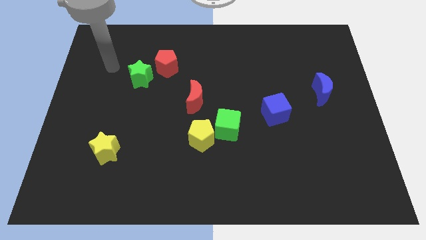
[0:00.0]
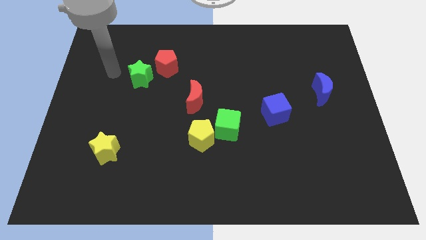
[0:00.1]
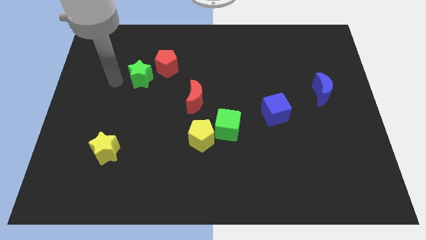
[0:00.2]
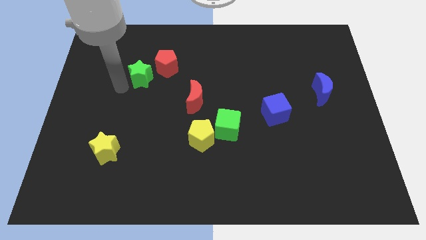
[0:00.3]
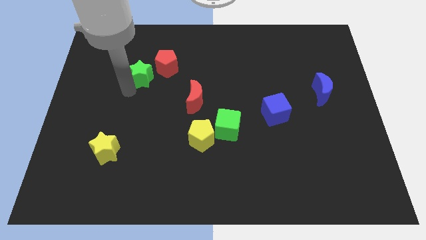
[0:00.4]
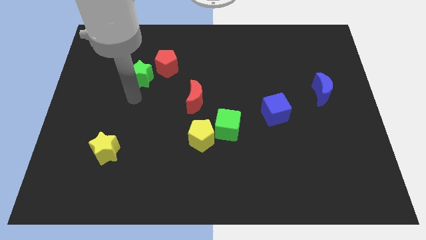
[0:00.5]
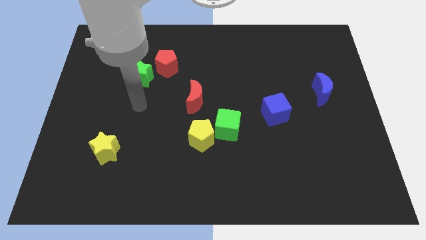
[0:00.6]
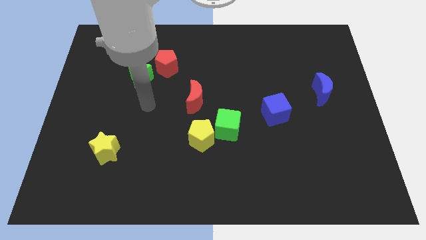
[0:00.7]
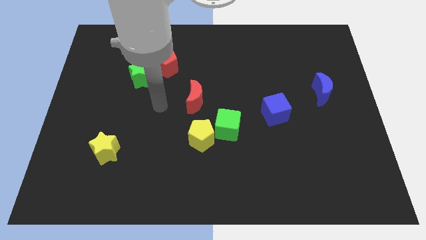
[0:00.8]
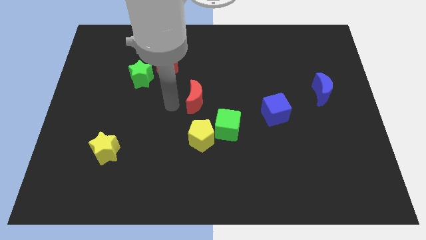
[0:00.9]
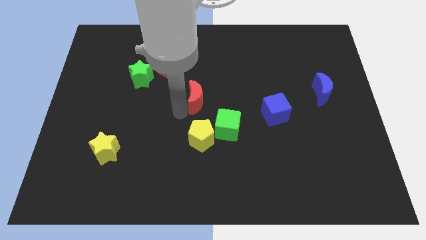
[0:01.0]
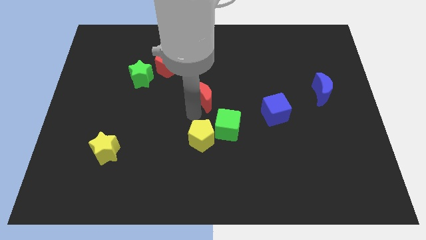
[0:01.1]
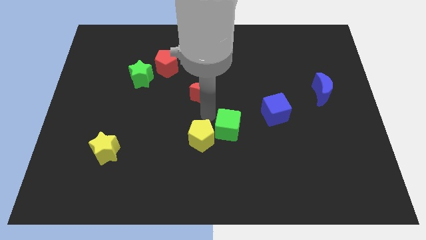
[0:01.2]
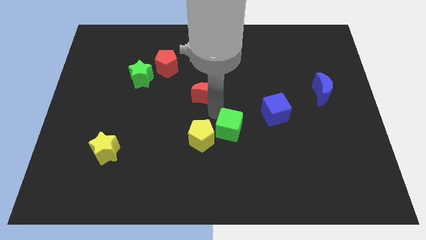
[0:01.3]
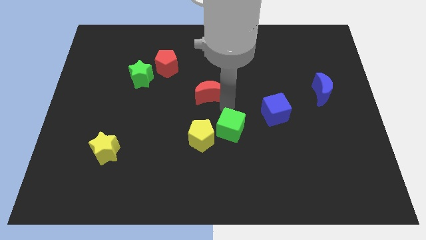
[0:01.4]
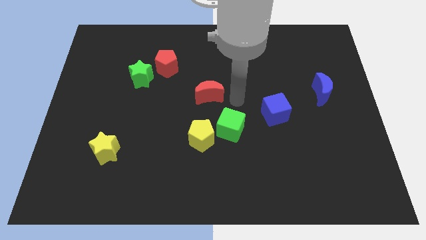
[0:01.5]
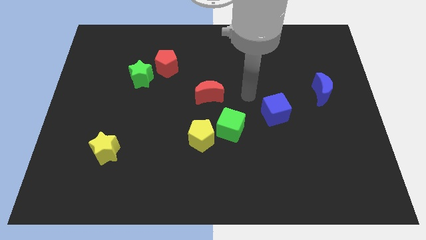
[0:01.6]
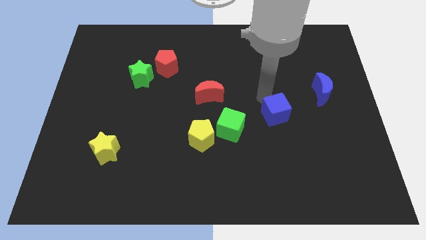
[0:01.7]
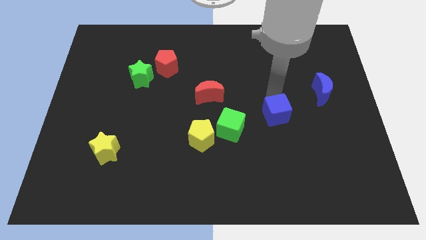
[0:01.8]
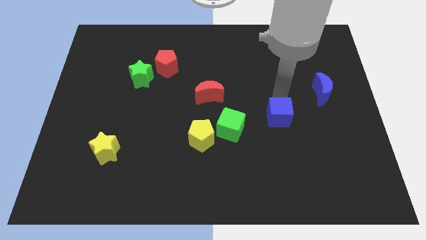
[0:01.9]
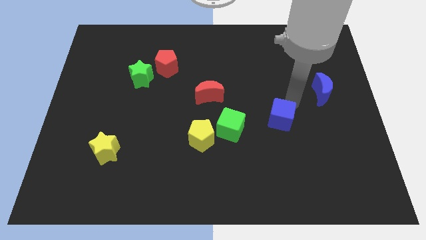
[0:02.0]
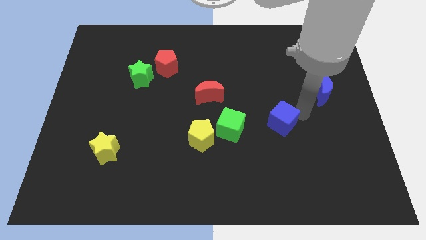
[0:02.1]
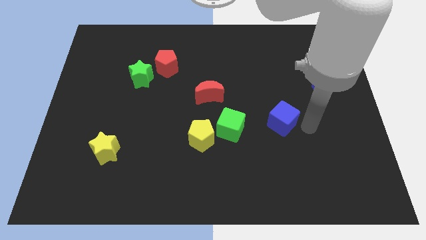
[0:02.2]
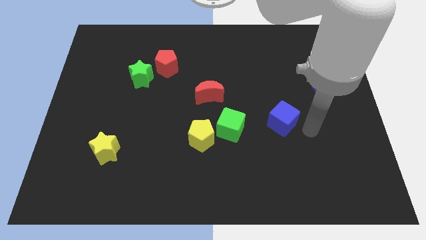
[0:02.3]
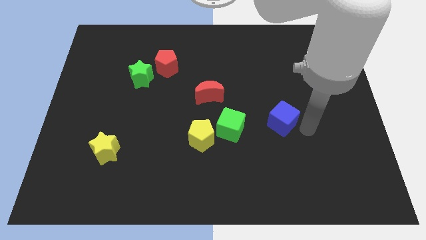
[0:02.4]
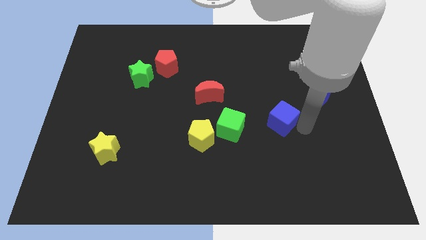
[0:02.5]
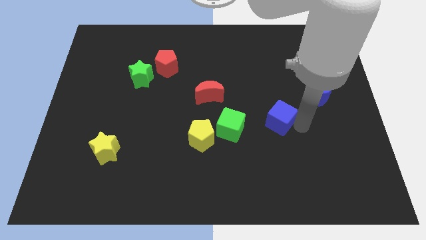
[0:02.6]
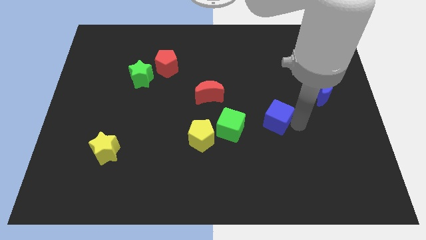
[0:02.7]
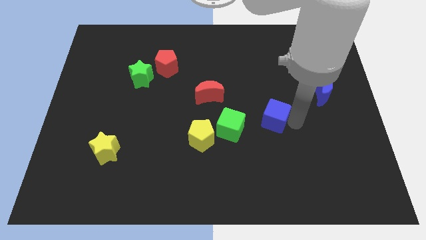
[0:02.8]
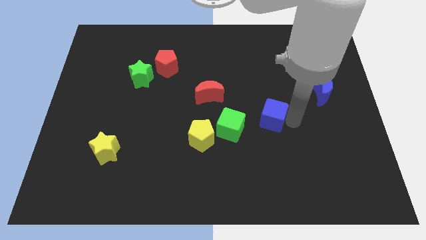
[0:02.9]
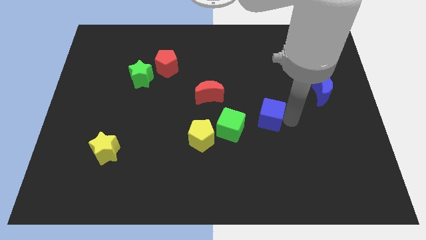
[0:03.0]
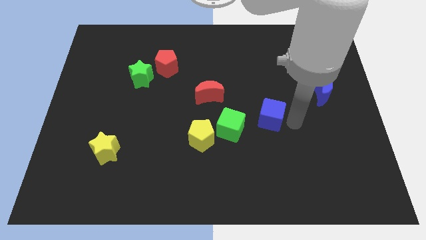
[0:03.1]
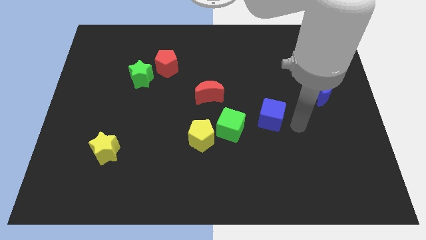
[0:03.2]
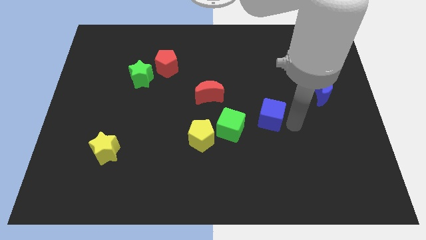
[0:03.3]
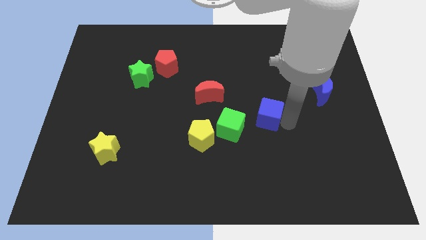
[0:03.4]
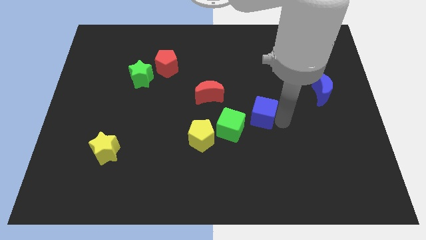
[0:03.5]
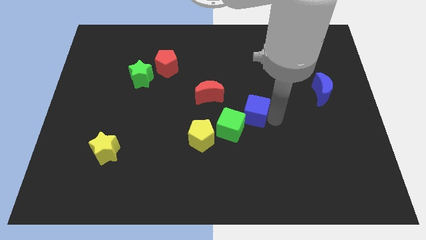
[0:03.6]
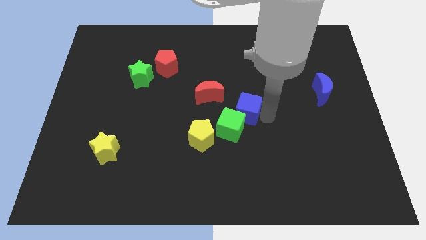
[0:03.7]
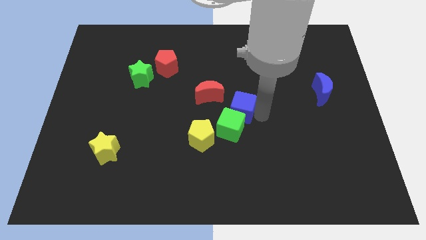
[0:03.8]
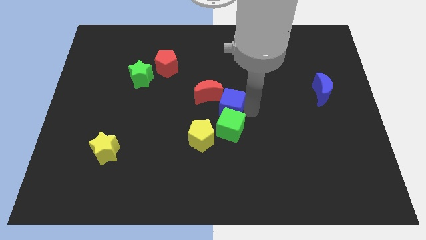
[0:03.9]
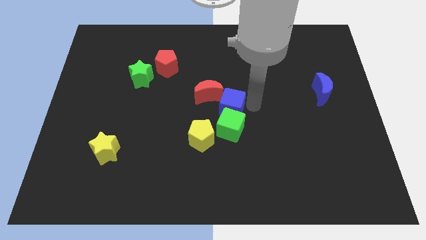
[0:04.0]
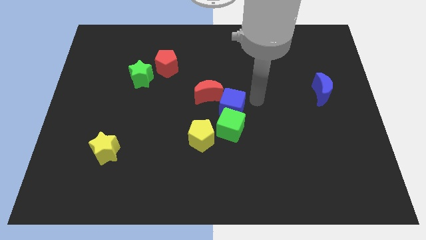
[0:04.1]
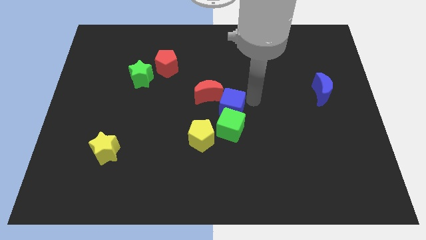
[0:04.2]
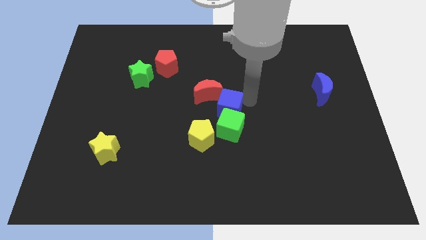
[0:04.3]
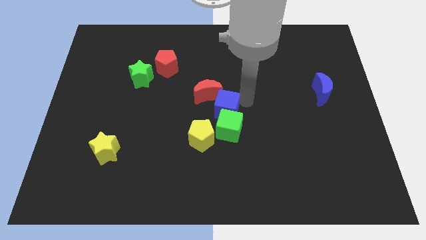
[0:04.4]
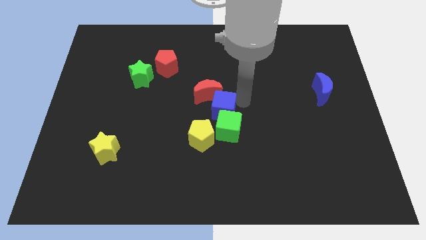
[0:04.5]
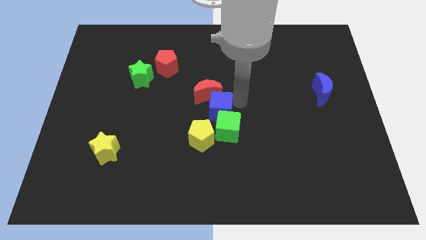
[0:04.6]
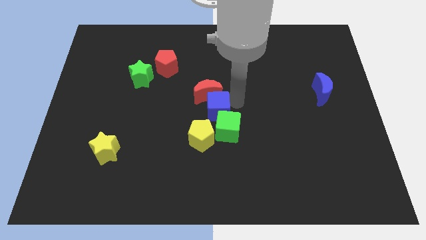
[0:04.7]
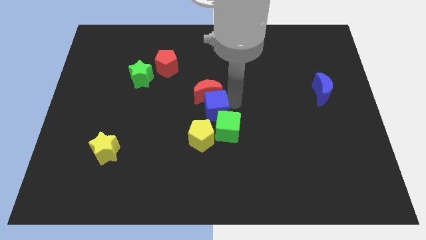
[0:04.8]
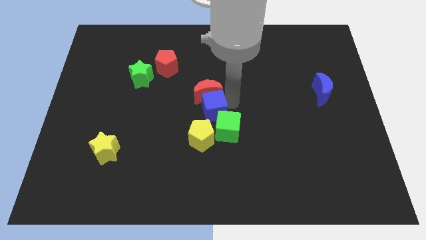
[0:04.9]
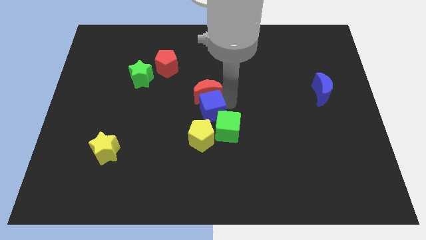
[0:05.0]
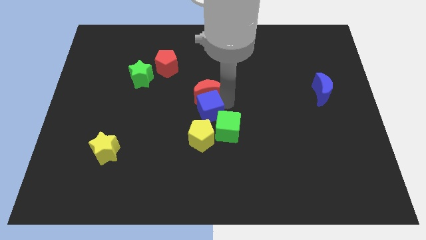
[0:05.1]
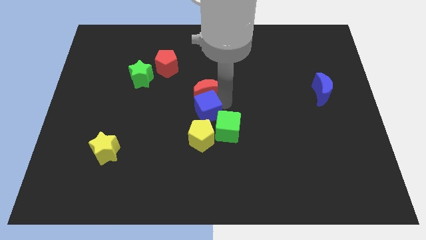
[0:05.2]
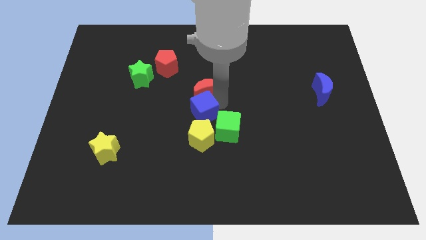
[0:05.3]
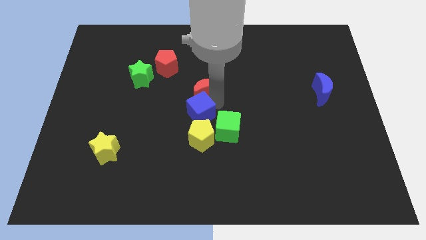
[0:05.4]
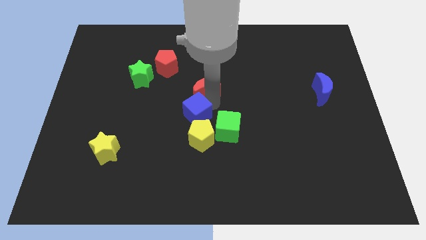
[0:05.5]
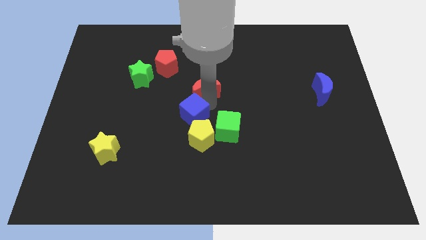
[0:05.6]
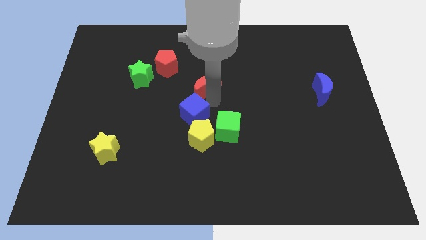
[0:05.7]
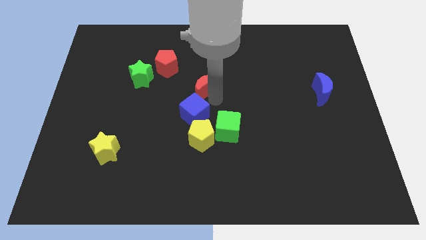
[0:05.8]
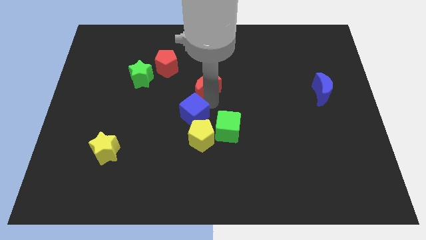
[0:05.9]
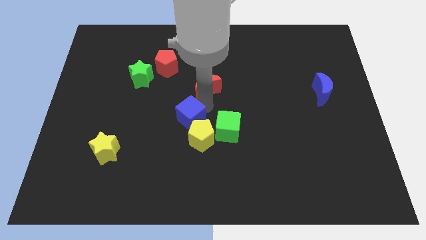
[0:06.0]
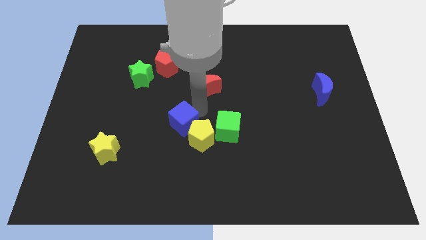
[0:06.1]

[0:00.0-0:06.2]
move the blue cube to the left of the yellow pentagon

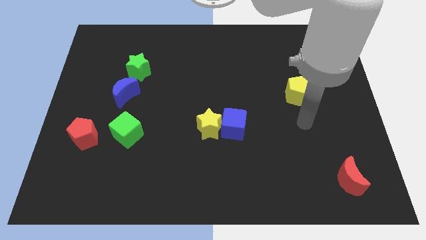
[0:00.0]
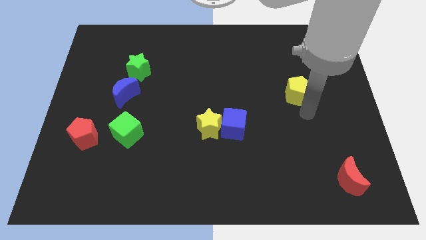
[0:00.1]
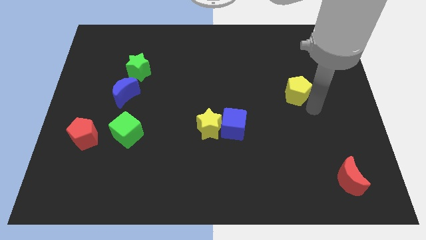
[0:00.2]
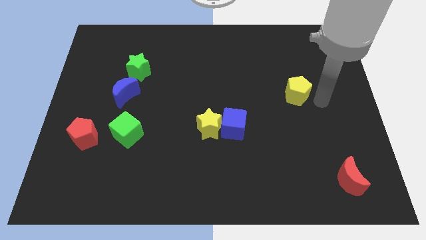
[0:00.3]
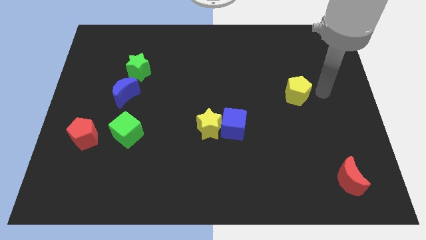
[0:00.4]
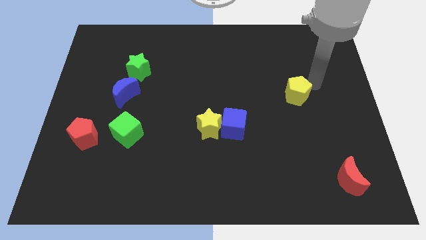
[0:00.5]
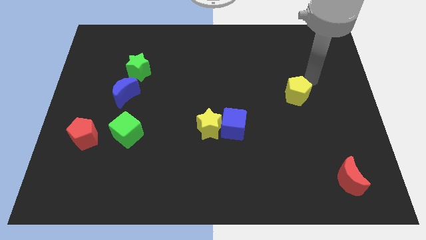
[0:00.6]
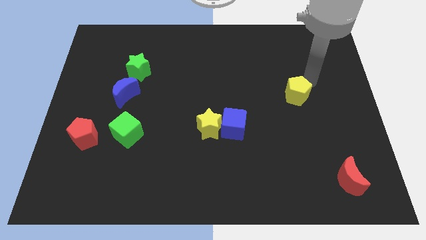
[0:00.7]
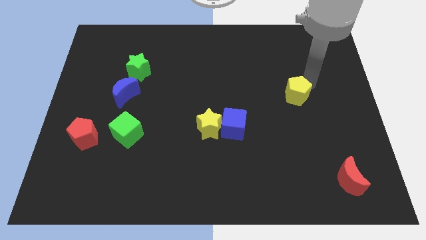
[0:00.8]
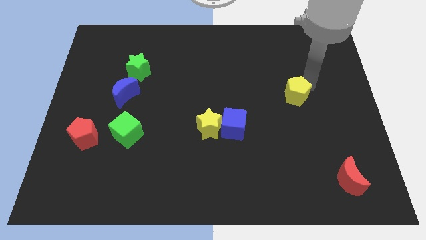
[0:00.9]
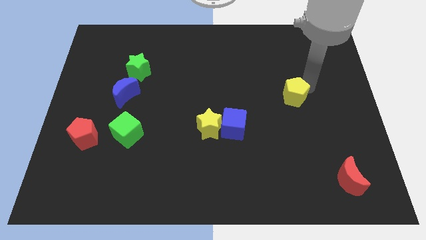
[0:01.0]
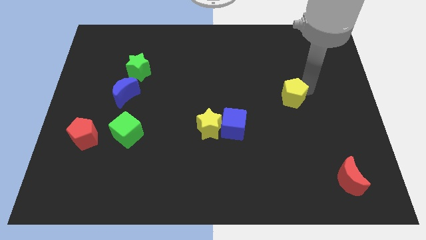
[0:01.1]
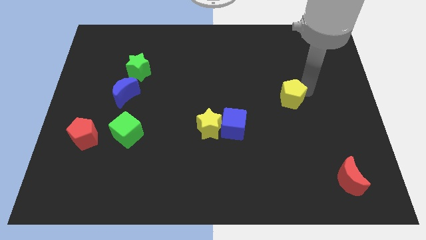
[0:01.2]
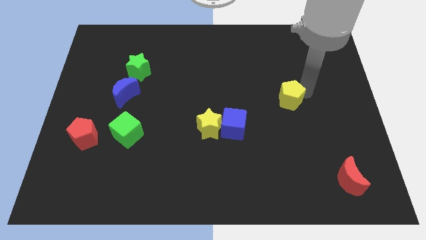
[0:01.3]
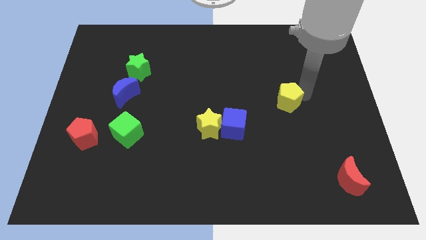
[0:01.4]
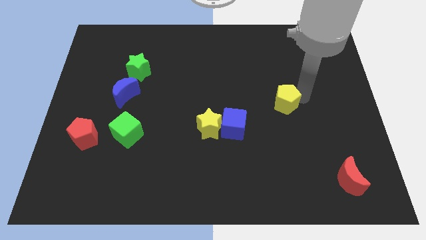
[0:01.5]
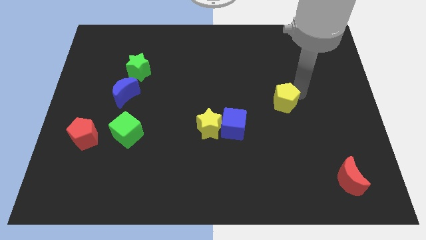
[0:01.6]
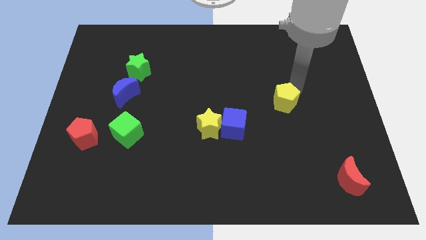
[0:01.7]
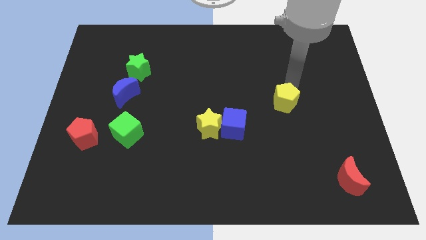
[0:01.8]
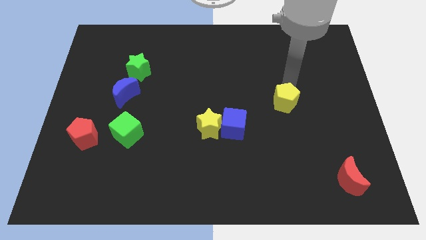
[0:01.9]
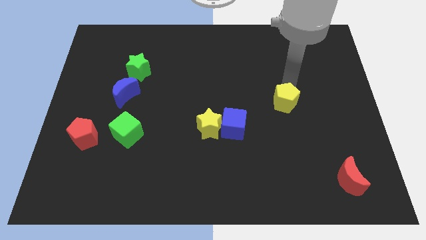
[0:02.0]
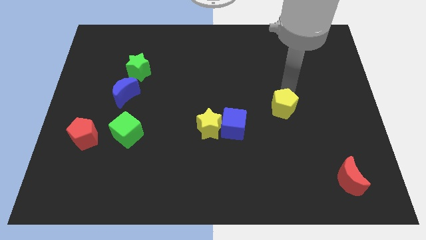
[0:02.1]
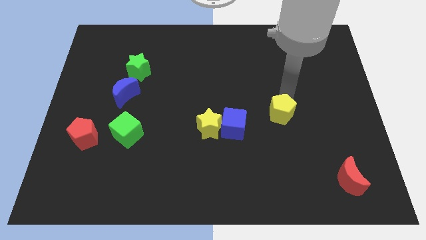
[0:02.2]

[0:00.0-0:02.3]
slide the yellow pentagon right of the blue cube
